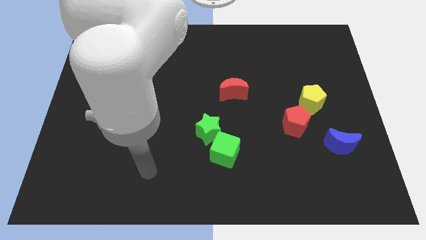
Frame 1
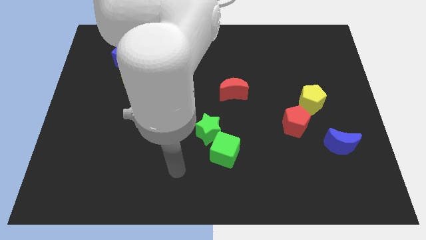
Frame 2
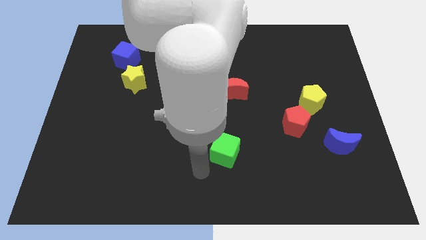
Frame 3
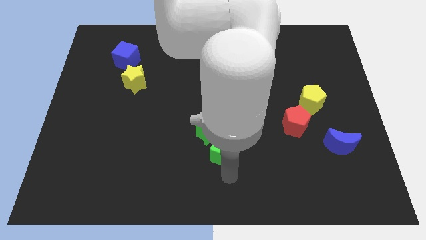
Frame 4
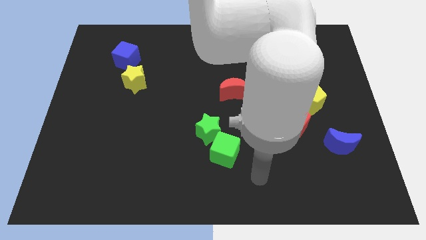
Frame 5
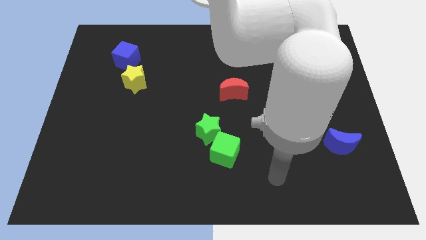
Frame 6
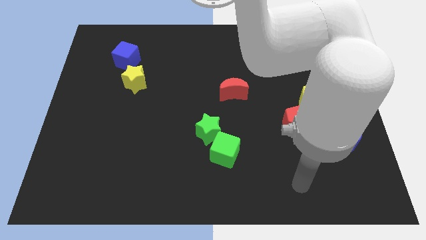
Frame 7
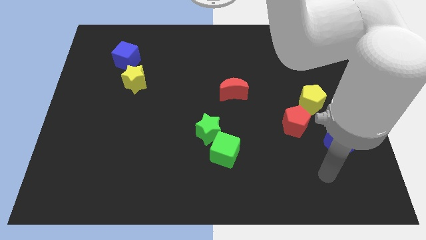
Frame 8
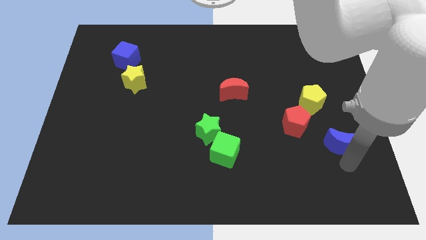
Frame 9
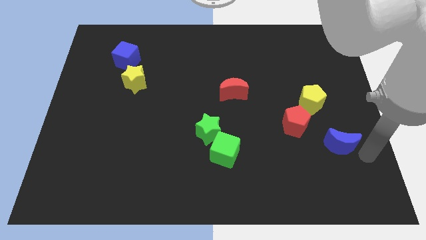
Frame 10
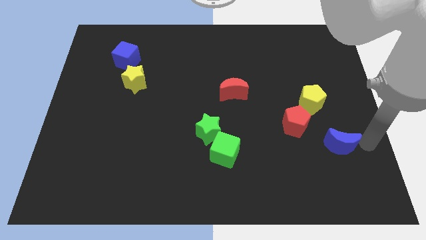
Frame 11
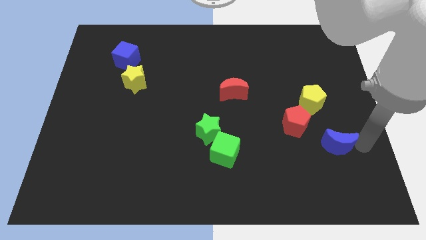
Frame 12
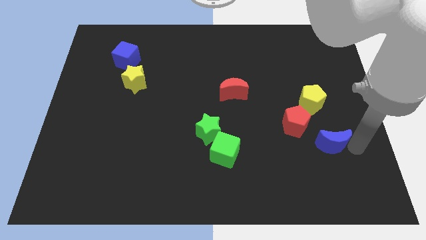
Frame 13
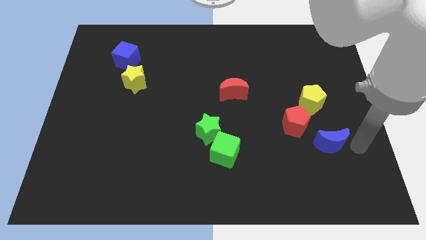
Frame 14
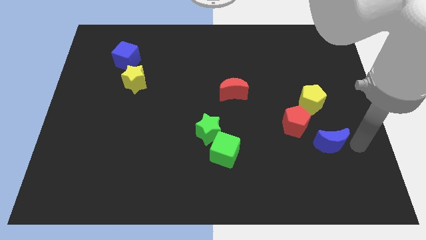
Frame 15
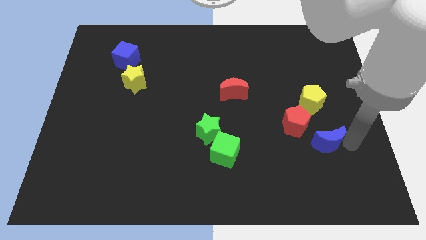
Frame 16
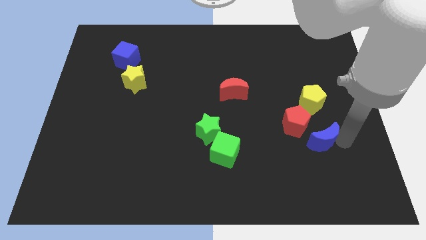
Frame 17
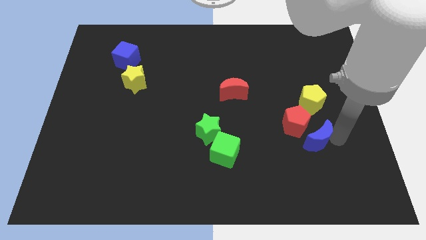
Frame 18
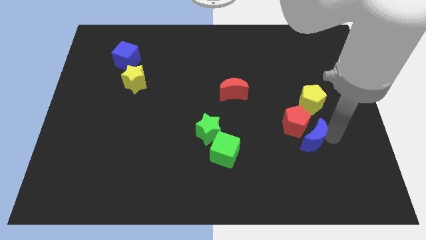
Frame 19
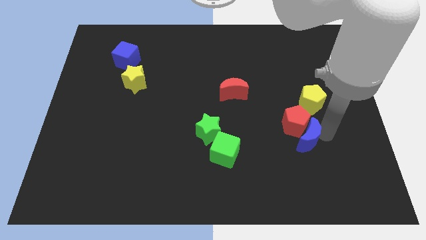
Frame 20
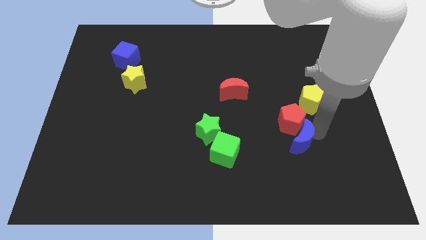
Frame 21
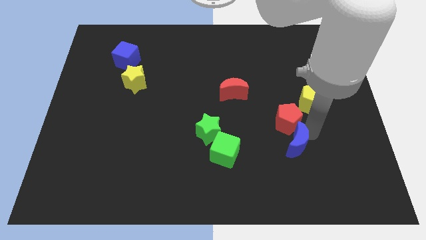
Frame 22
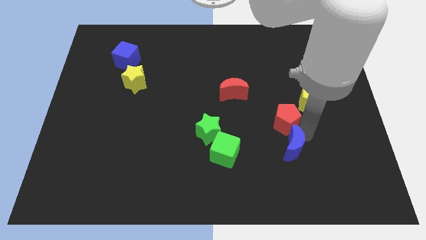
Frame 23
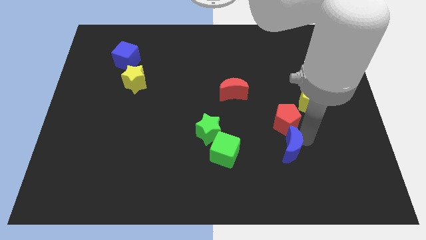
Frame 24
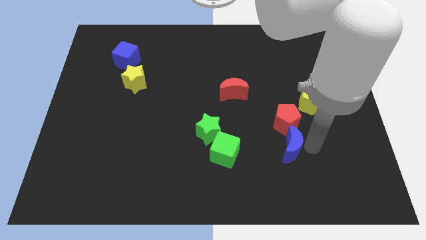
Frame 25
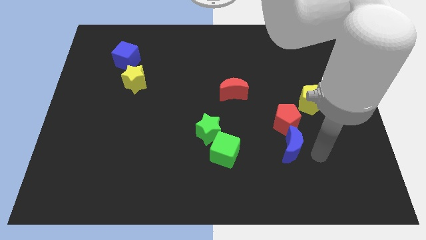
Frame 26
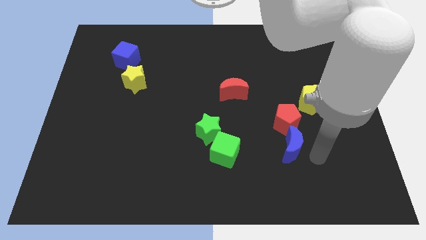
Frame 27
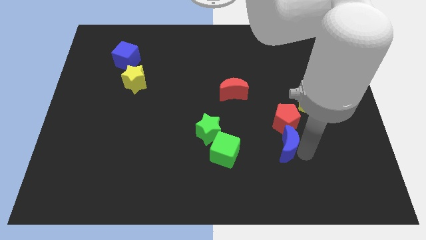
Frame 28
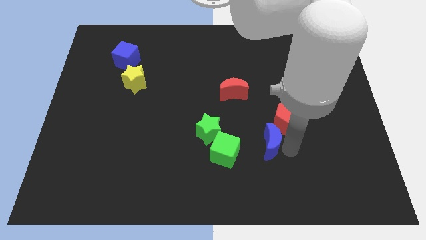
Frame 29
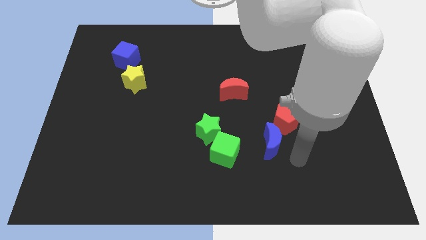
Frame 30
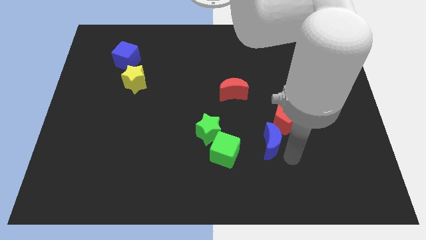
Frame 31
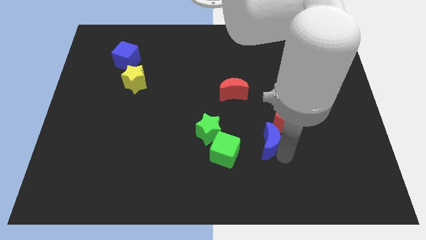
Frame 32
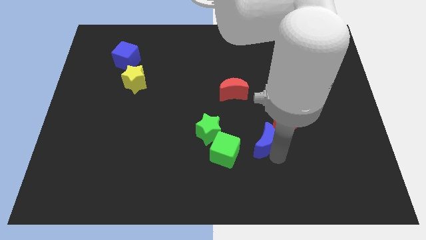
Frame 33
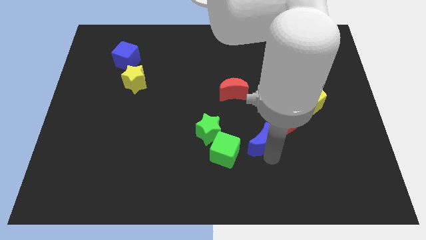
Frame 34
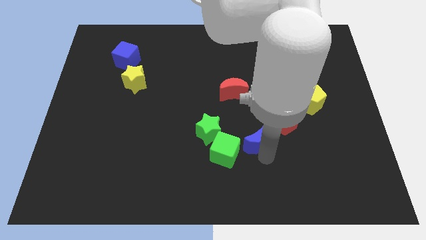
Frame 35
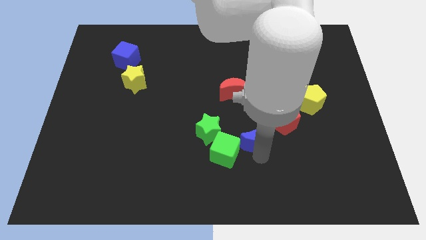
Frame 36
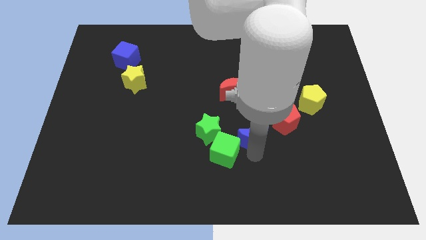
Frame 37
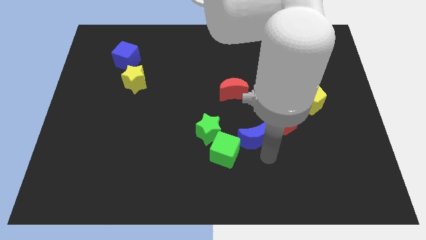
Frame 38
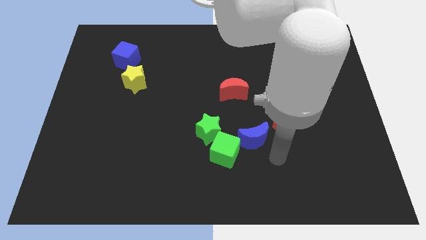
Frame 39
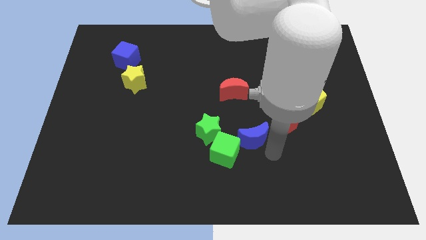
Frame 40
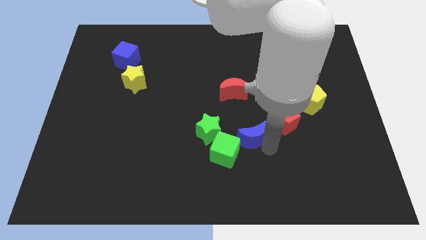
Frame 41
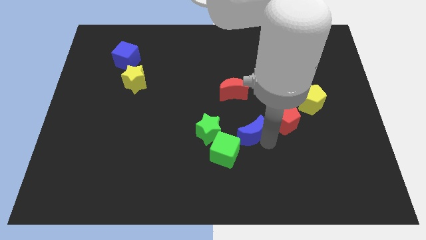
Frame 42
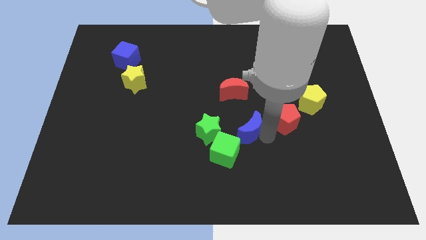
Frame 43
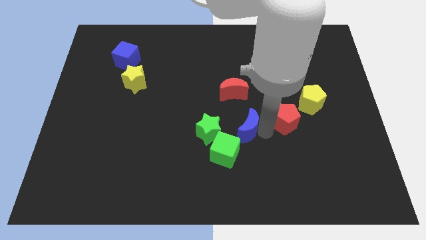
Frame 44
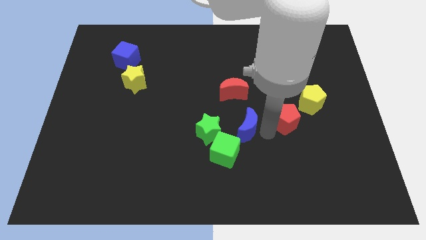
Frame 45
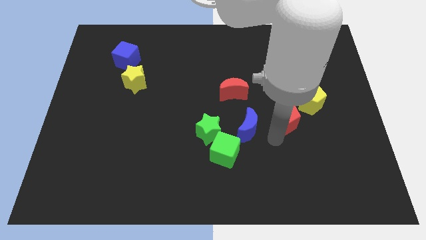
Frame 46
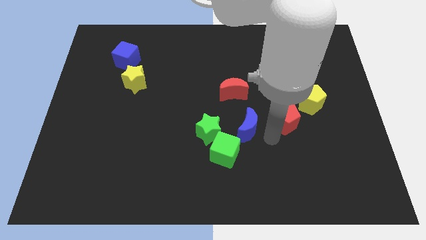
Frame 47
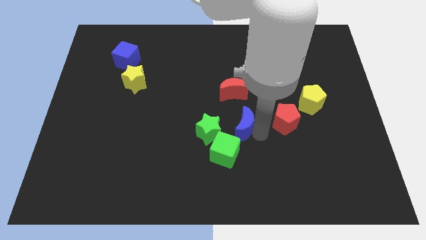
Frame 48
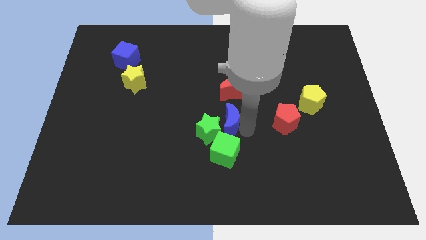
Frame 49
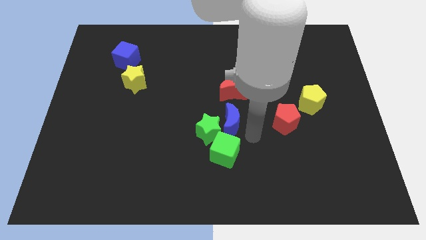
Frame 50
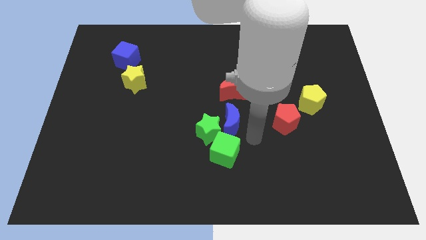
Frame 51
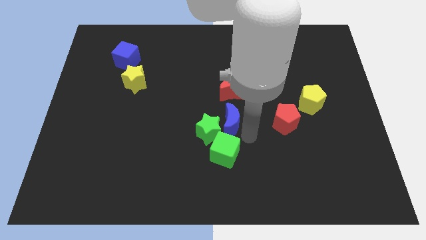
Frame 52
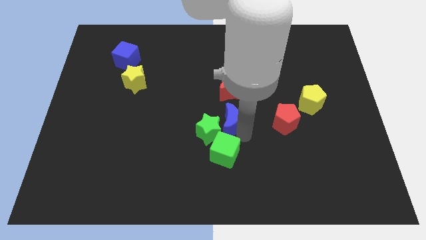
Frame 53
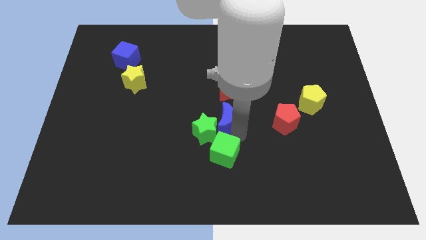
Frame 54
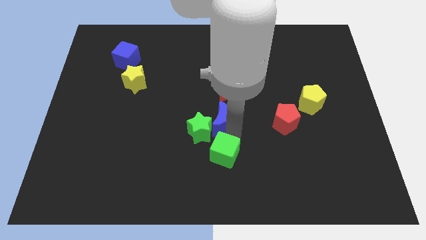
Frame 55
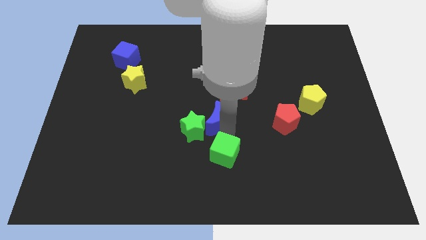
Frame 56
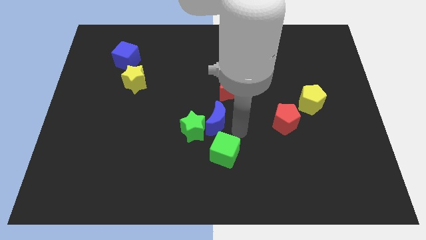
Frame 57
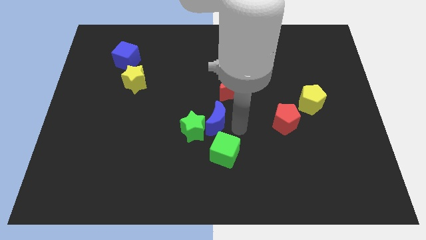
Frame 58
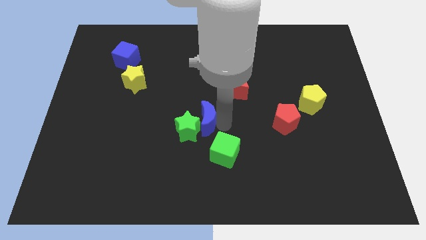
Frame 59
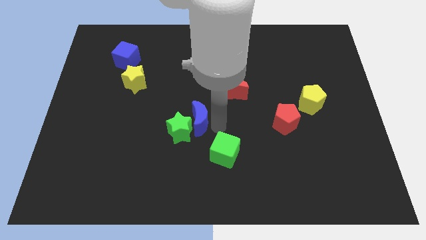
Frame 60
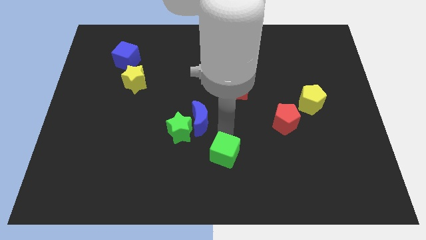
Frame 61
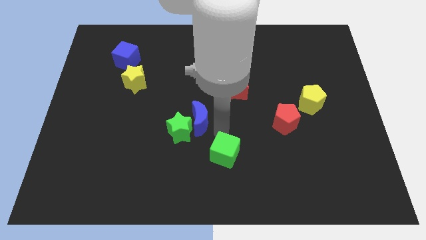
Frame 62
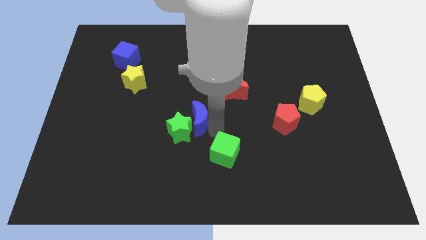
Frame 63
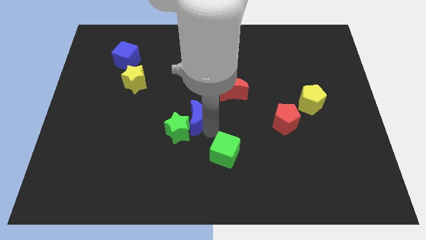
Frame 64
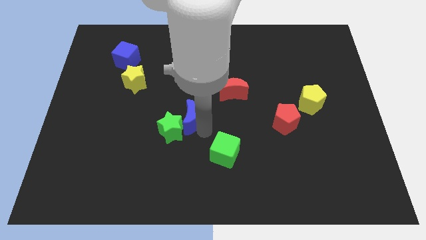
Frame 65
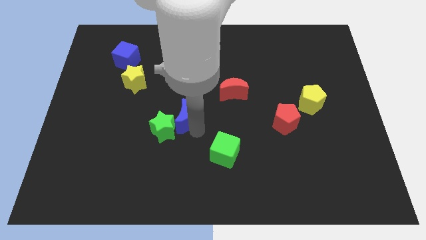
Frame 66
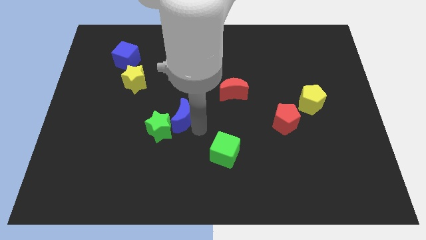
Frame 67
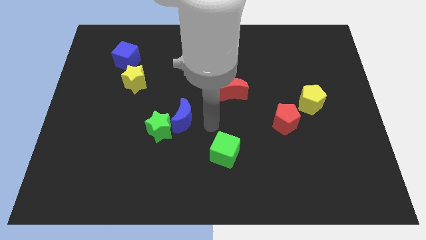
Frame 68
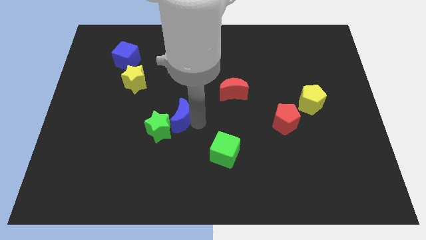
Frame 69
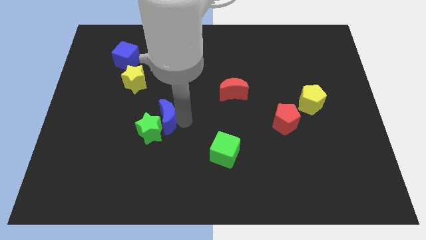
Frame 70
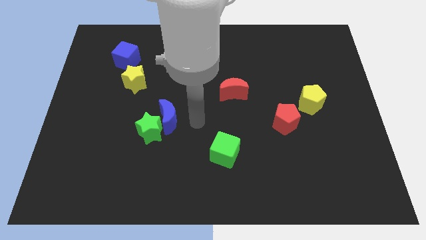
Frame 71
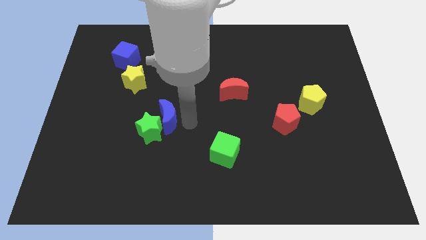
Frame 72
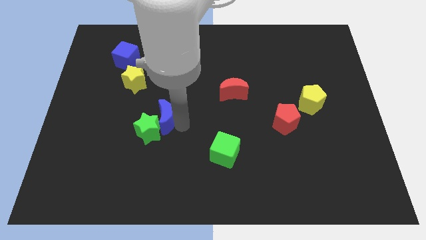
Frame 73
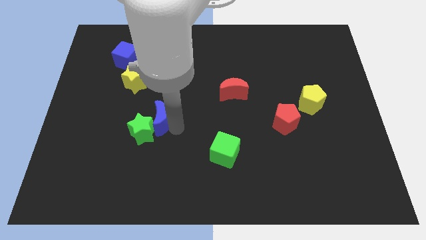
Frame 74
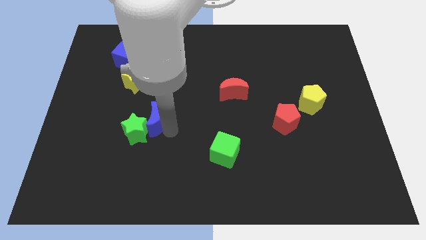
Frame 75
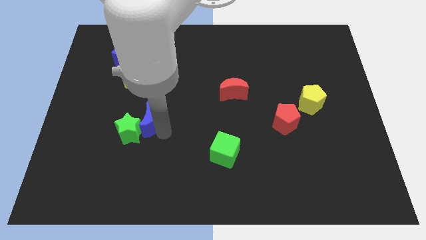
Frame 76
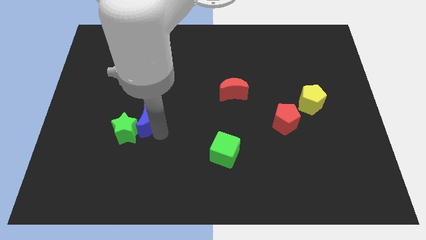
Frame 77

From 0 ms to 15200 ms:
move the blue moon to the bottom side of the yellow star
